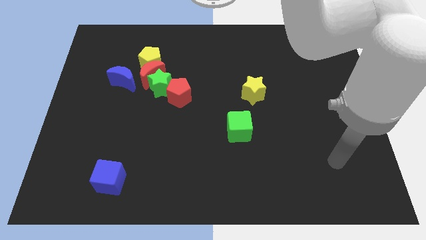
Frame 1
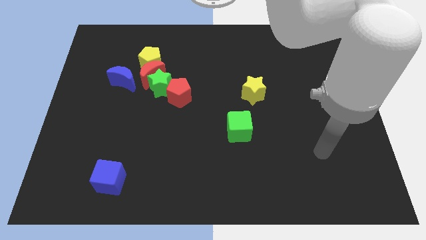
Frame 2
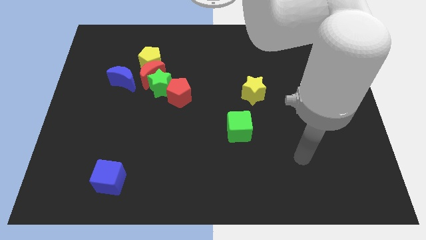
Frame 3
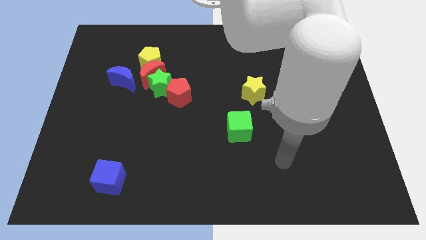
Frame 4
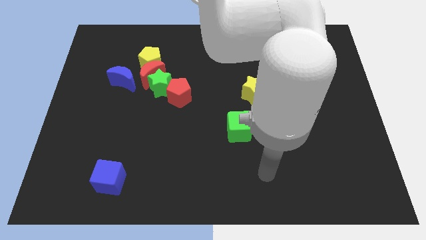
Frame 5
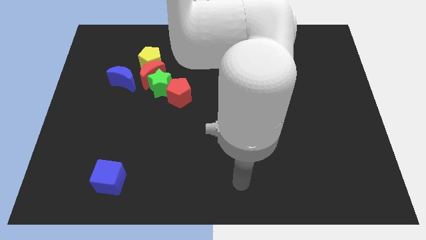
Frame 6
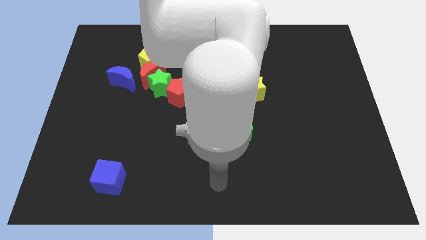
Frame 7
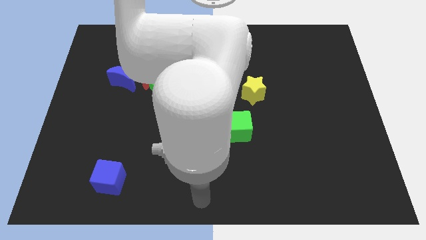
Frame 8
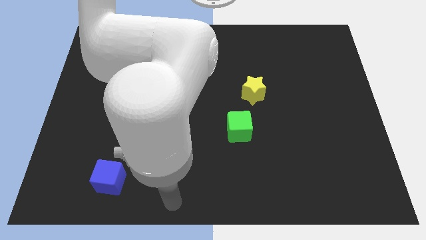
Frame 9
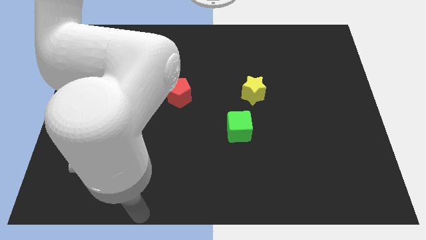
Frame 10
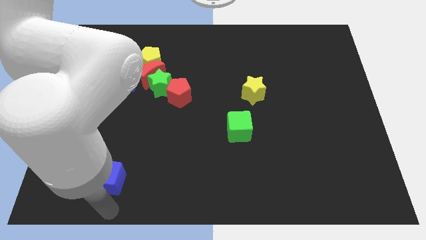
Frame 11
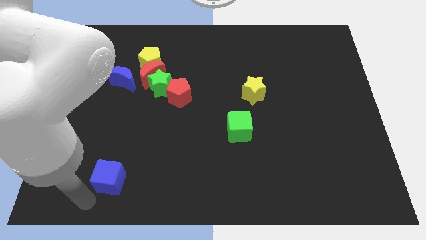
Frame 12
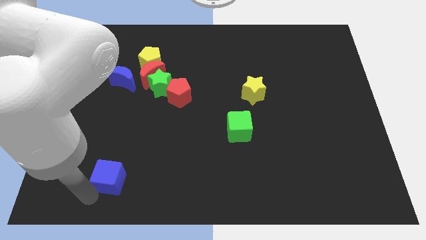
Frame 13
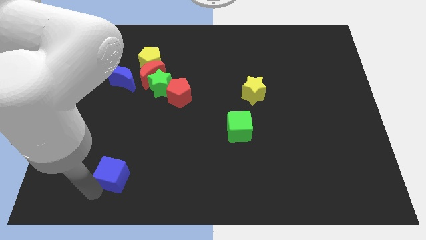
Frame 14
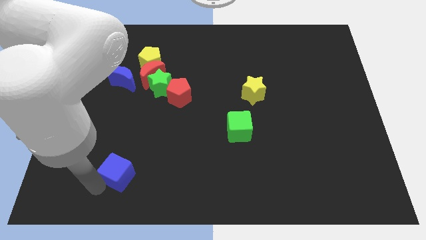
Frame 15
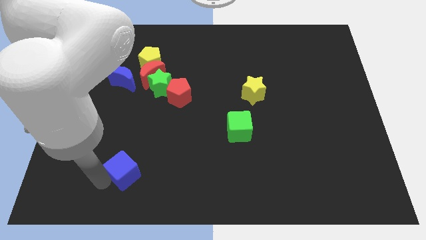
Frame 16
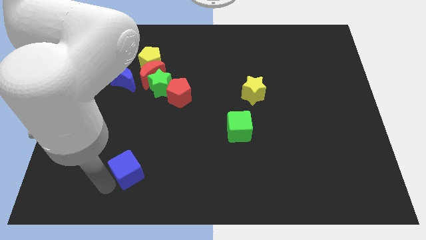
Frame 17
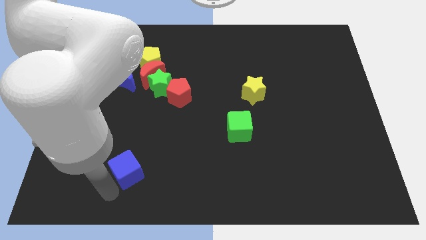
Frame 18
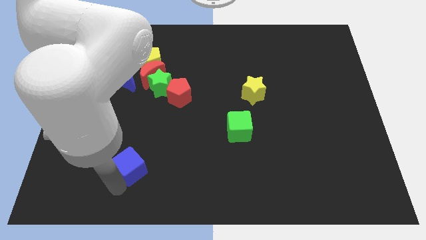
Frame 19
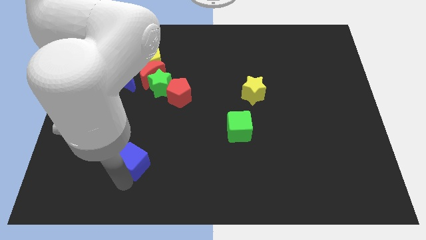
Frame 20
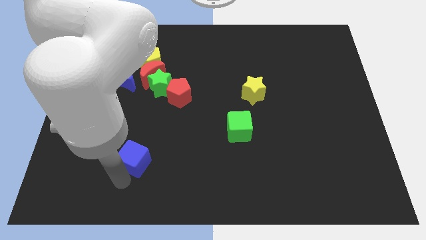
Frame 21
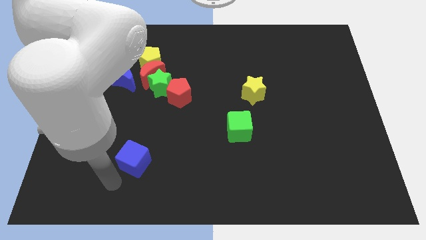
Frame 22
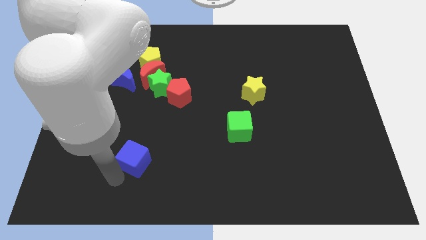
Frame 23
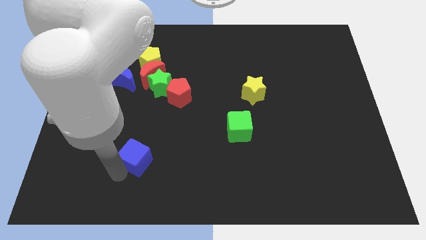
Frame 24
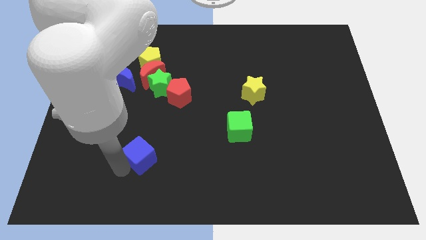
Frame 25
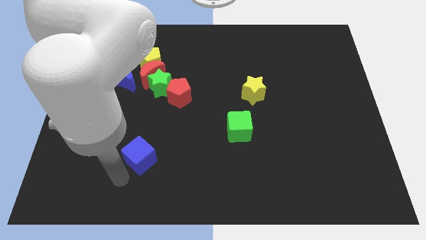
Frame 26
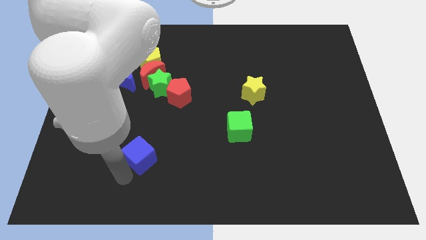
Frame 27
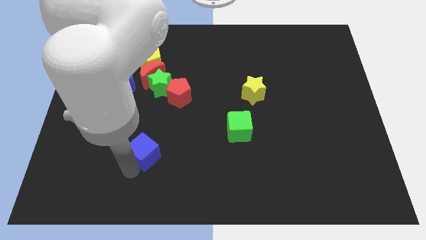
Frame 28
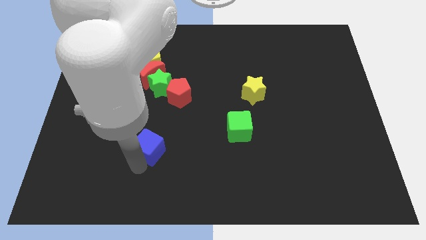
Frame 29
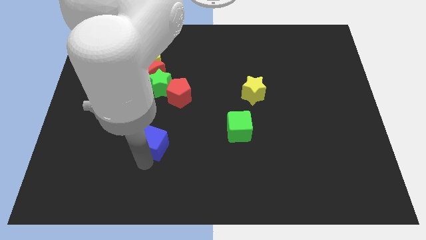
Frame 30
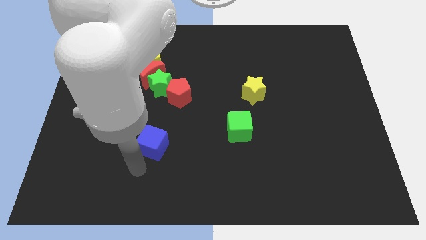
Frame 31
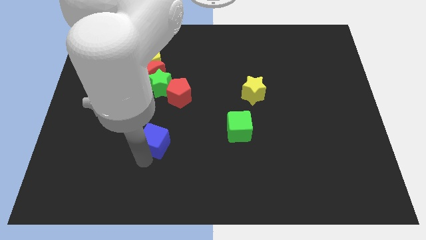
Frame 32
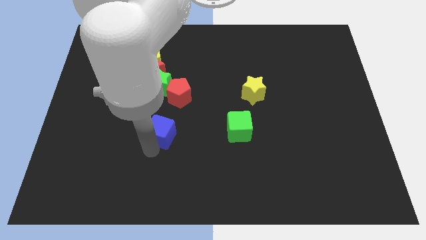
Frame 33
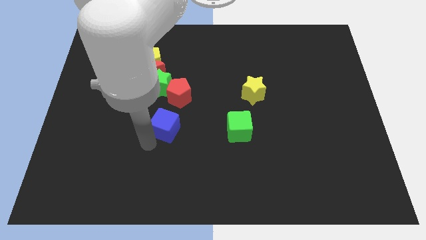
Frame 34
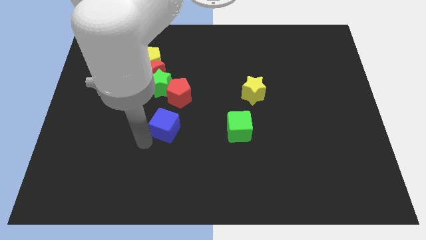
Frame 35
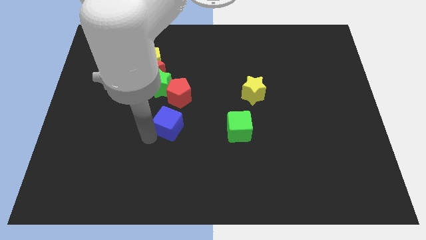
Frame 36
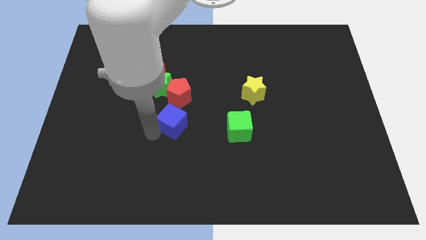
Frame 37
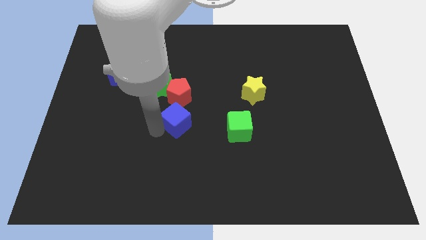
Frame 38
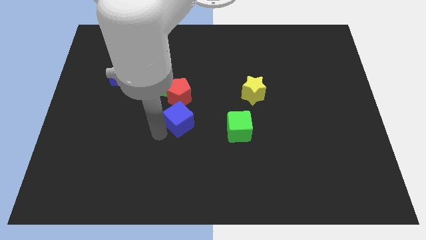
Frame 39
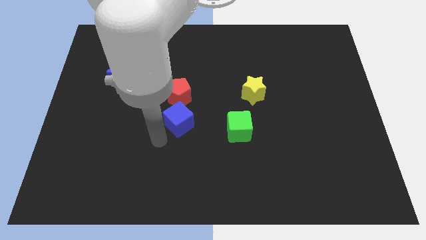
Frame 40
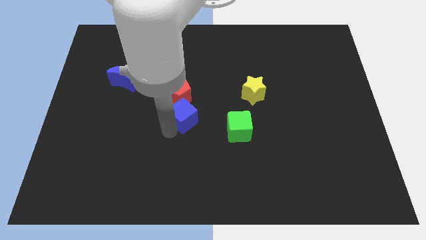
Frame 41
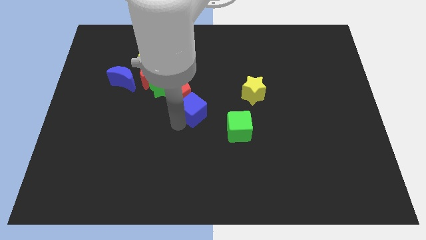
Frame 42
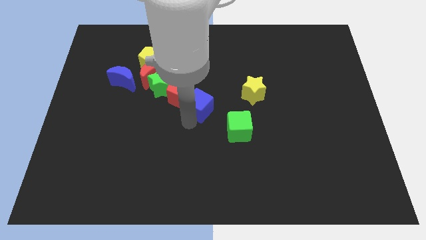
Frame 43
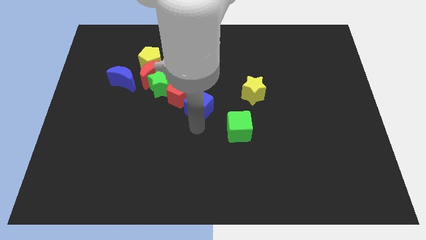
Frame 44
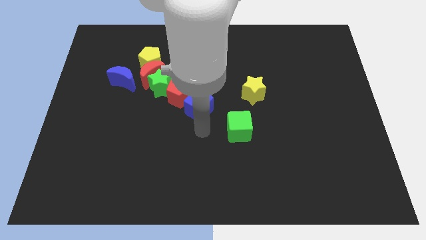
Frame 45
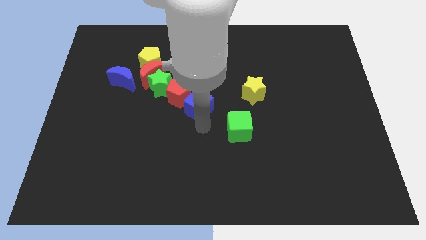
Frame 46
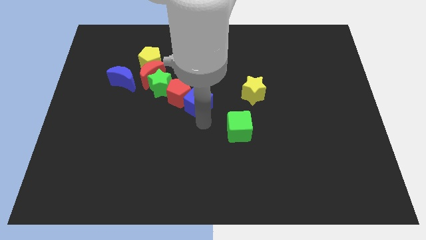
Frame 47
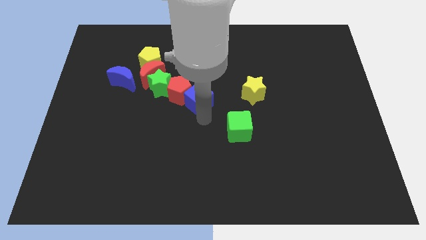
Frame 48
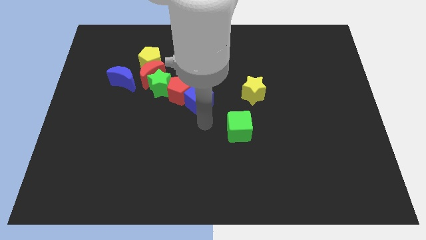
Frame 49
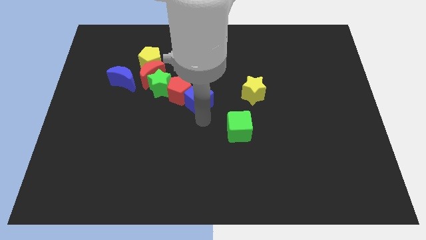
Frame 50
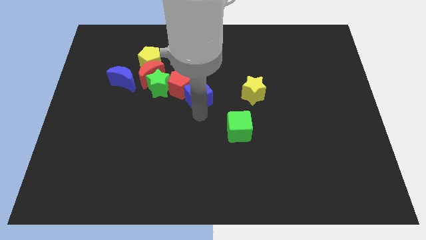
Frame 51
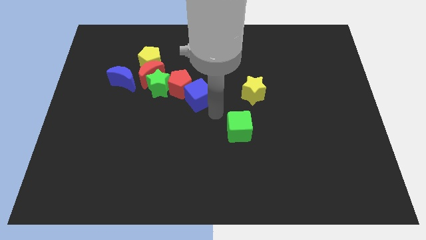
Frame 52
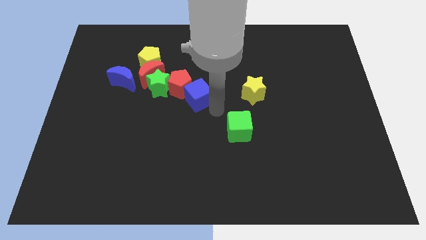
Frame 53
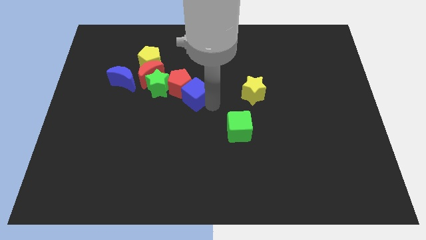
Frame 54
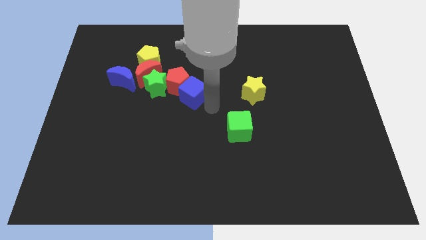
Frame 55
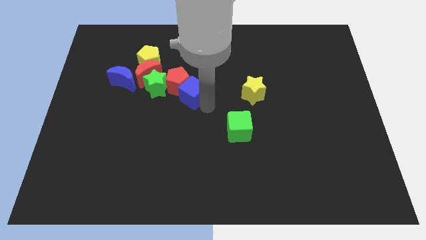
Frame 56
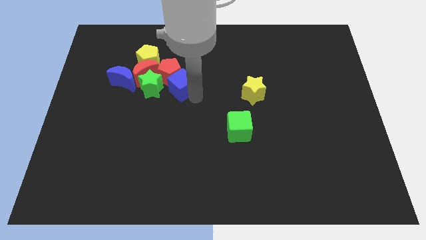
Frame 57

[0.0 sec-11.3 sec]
slide the blue cube to the bottom right side of the yellow pentagon

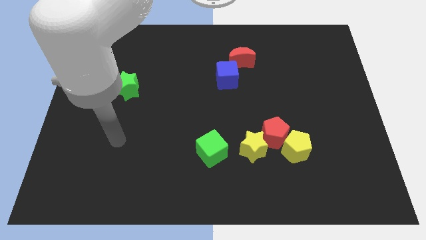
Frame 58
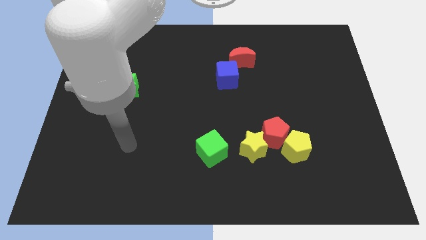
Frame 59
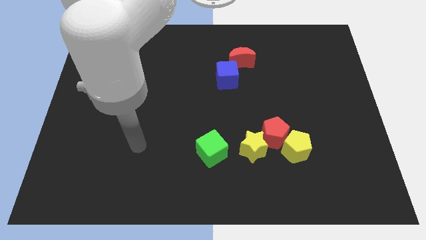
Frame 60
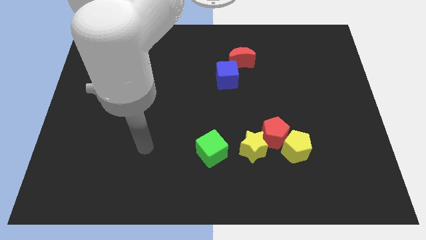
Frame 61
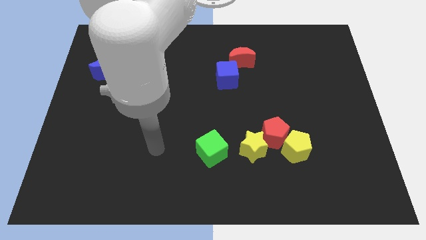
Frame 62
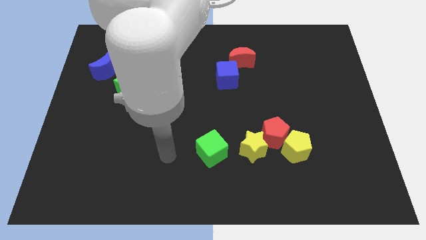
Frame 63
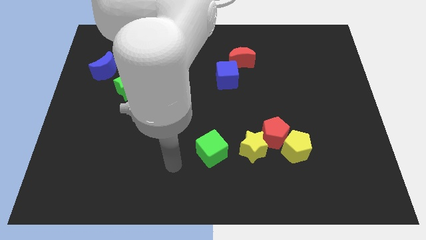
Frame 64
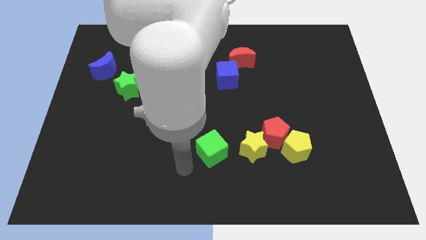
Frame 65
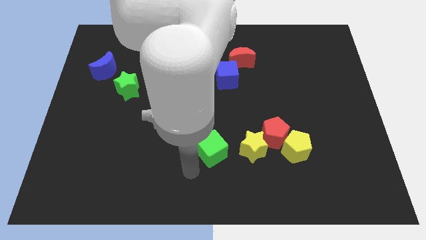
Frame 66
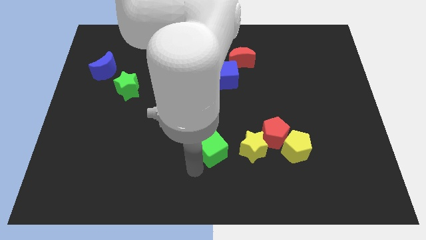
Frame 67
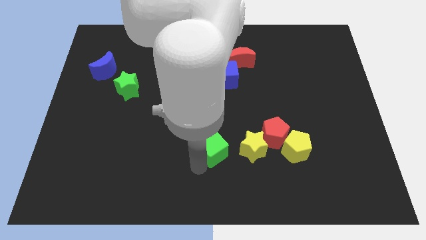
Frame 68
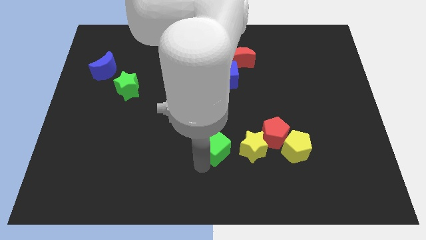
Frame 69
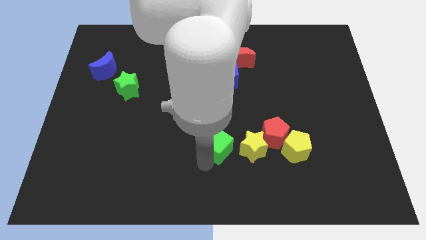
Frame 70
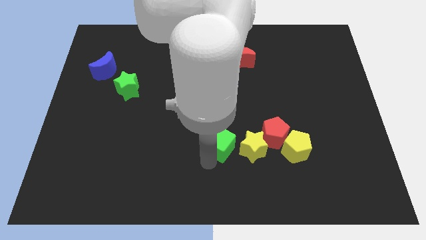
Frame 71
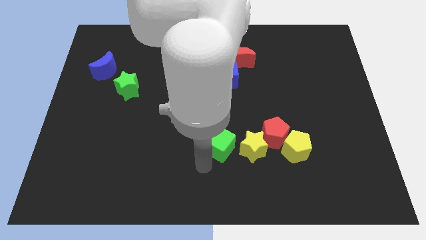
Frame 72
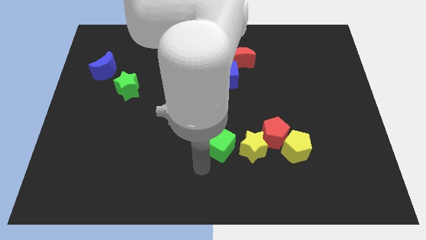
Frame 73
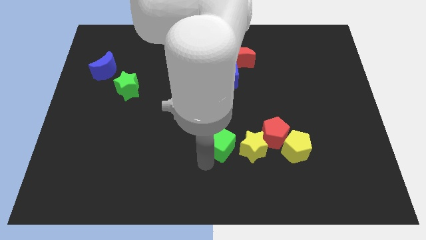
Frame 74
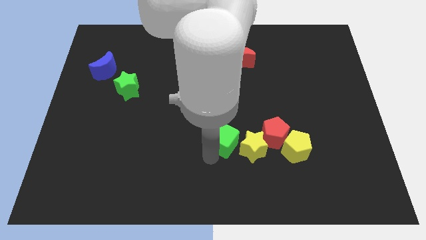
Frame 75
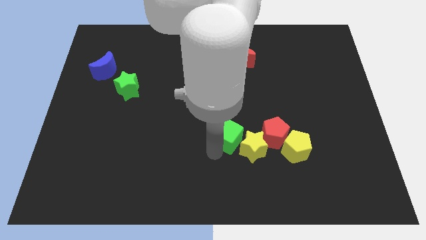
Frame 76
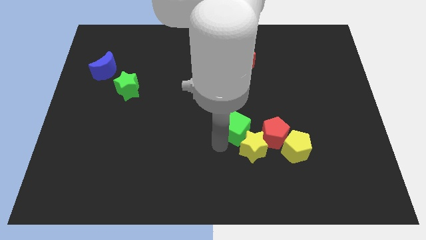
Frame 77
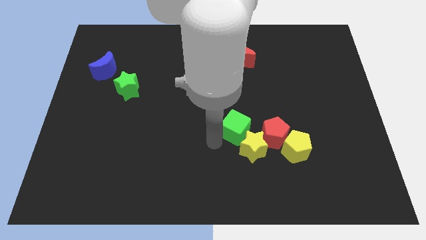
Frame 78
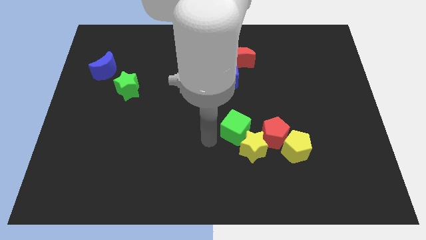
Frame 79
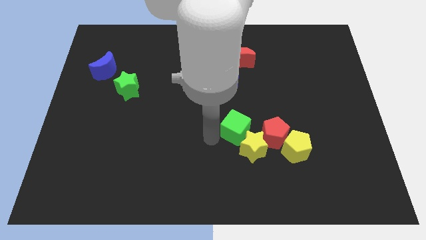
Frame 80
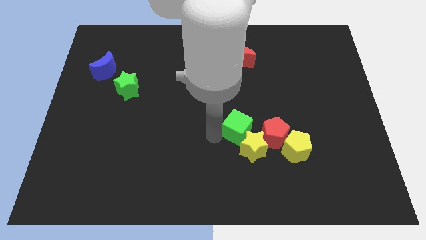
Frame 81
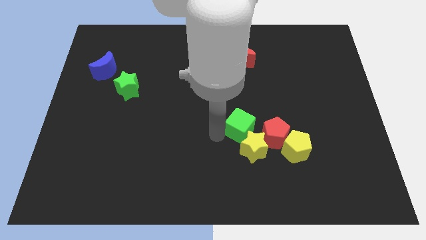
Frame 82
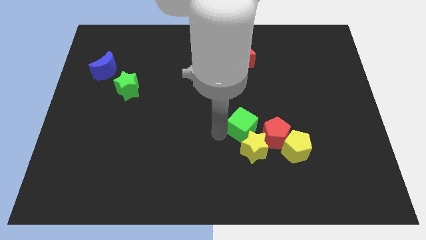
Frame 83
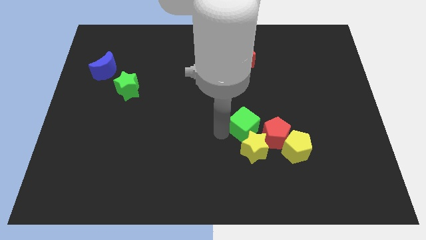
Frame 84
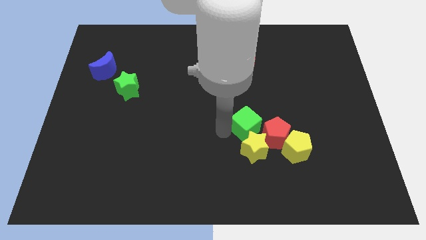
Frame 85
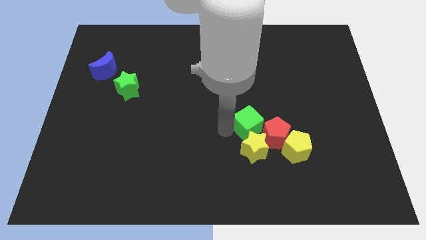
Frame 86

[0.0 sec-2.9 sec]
slide the green cube to the top right side of the yellow star

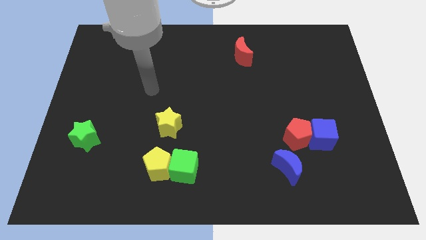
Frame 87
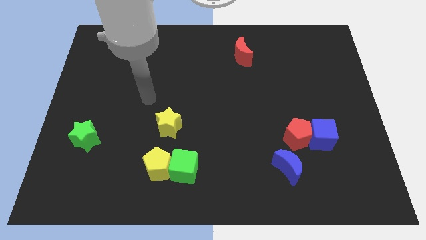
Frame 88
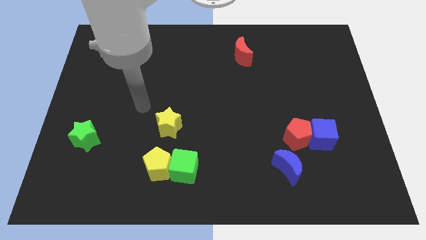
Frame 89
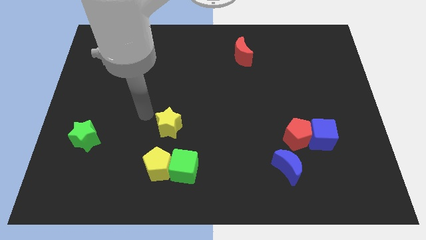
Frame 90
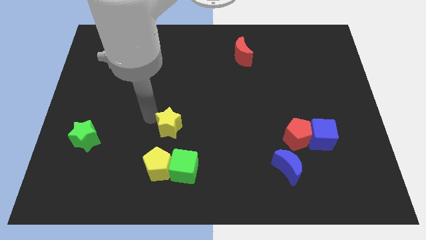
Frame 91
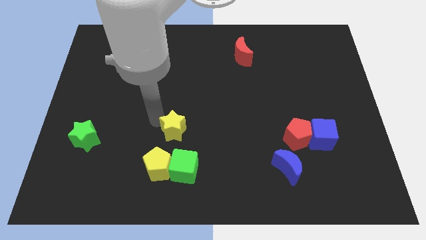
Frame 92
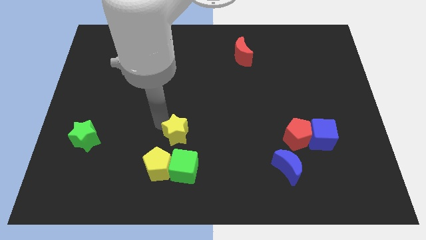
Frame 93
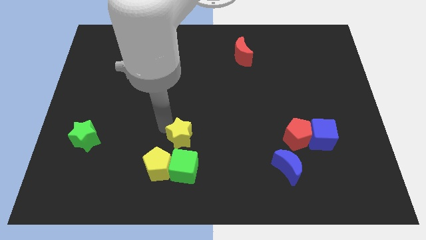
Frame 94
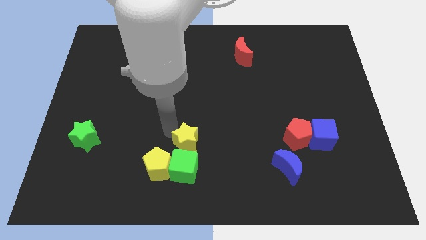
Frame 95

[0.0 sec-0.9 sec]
put the yellow star to the top right side of the green cube
